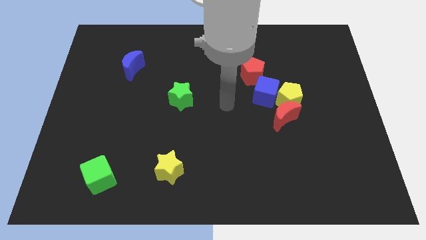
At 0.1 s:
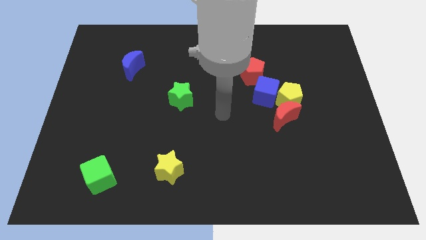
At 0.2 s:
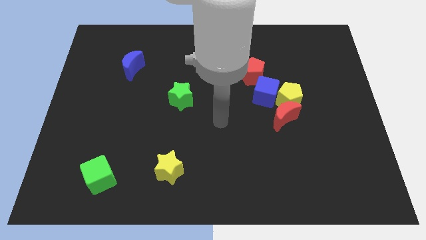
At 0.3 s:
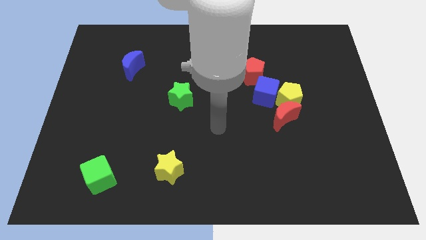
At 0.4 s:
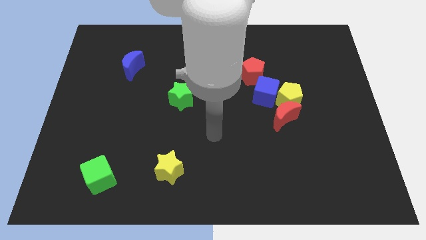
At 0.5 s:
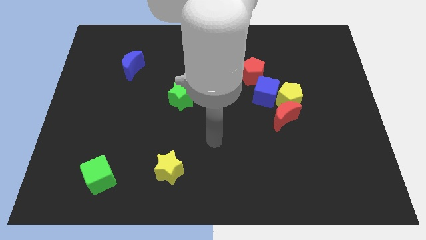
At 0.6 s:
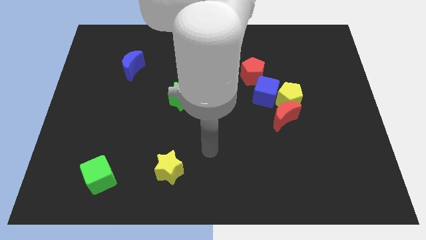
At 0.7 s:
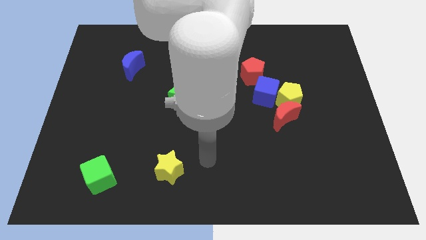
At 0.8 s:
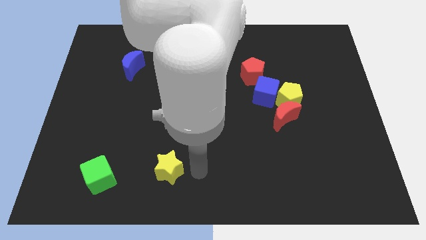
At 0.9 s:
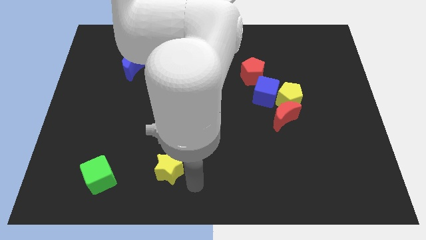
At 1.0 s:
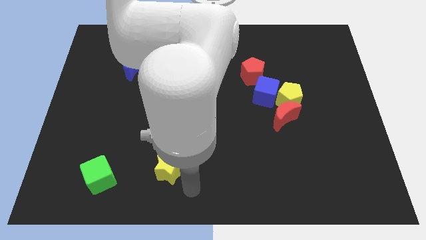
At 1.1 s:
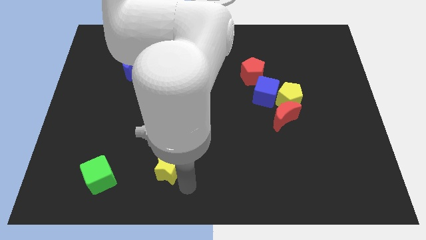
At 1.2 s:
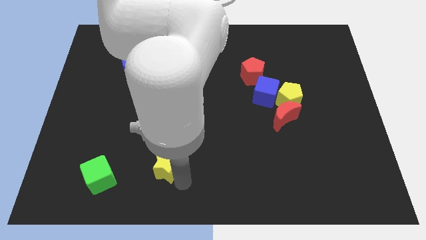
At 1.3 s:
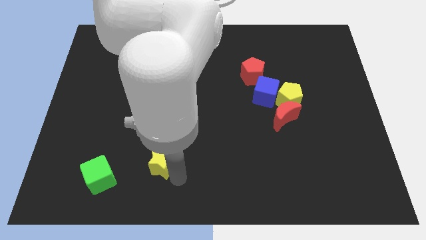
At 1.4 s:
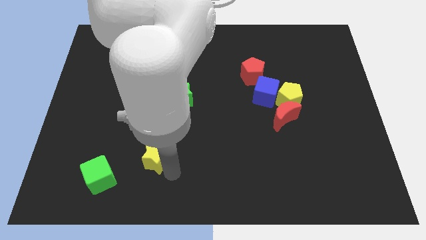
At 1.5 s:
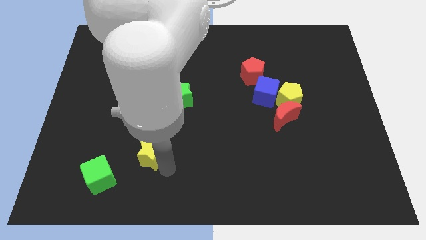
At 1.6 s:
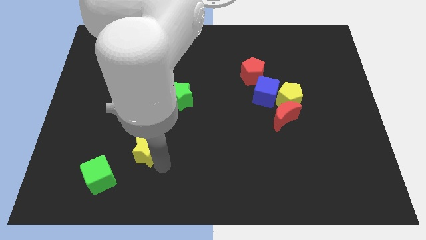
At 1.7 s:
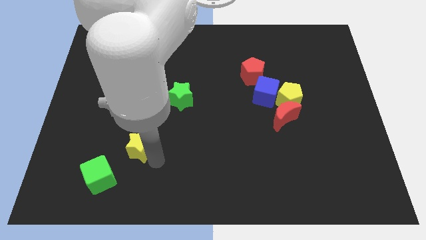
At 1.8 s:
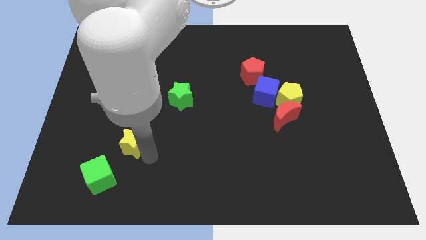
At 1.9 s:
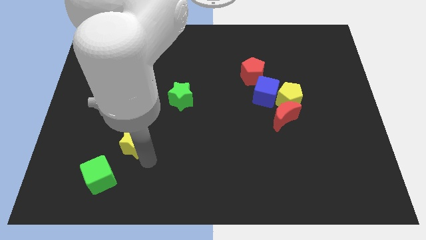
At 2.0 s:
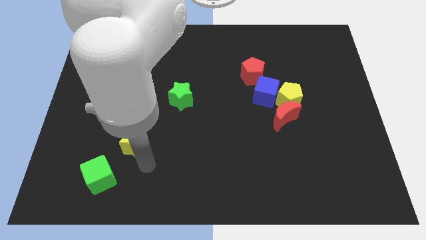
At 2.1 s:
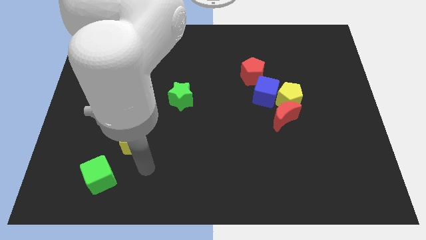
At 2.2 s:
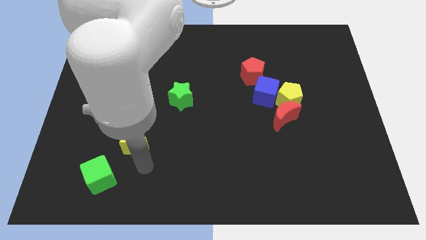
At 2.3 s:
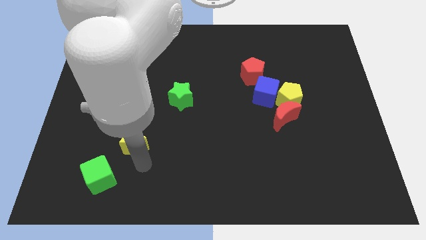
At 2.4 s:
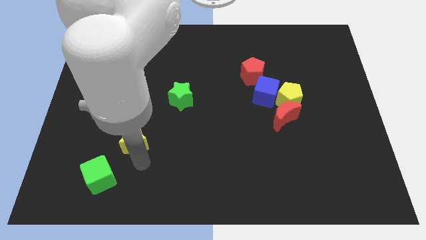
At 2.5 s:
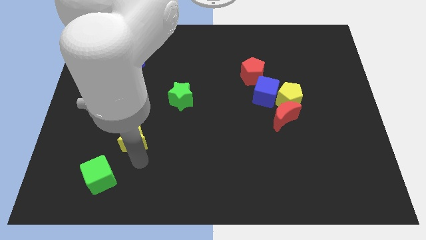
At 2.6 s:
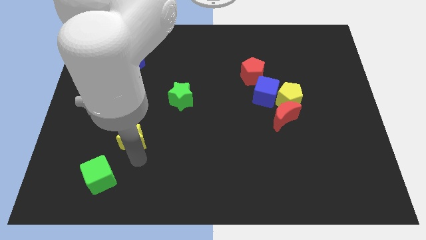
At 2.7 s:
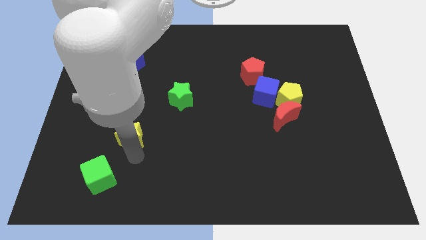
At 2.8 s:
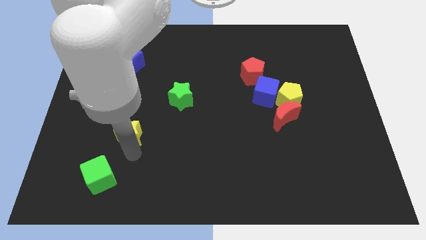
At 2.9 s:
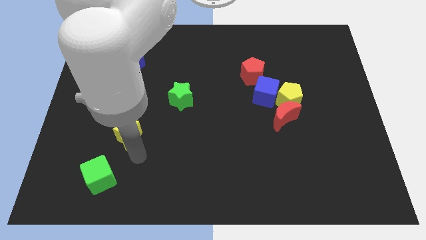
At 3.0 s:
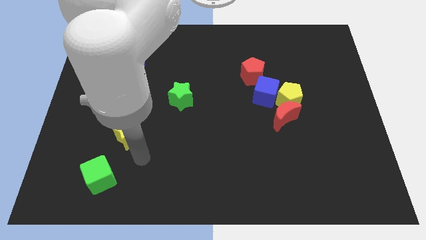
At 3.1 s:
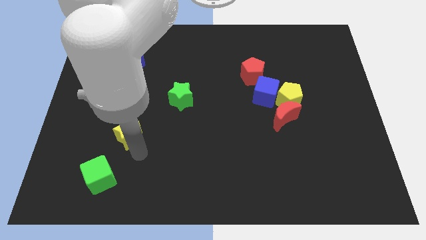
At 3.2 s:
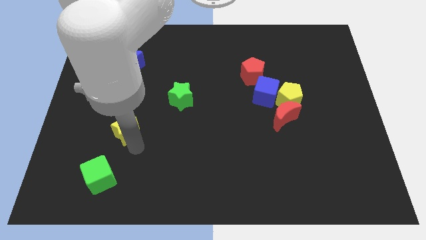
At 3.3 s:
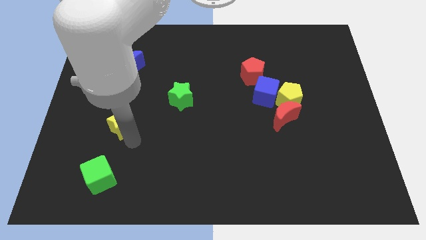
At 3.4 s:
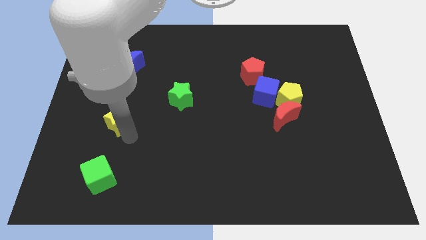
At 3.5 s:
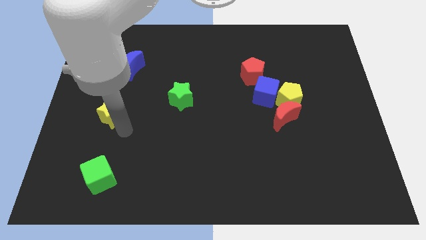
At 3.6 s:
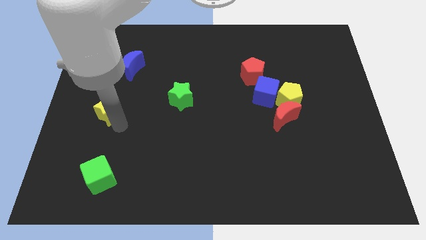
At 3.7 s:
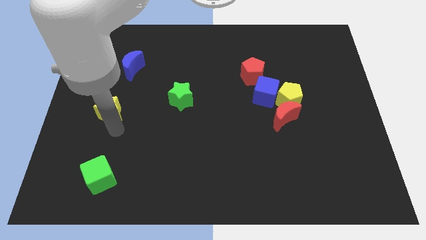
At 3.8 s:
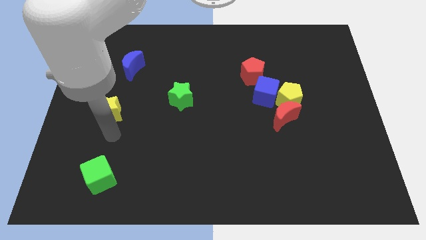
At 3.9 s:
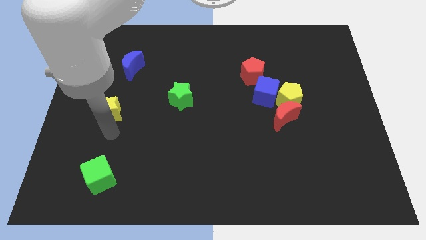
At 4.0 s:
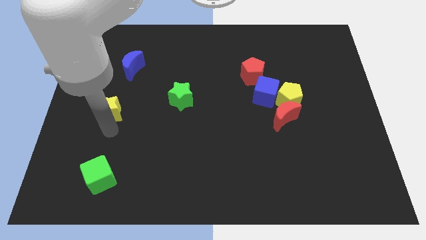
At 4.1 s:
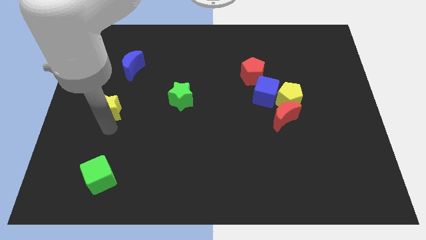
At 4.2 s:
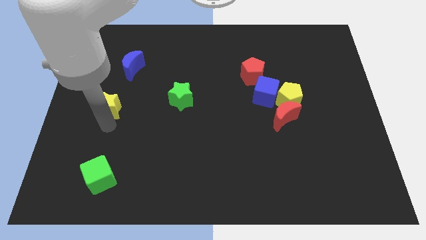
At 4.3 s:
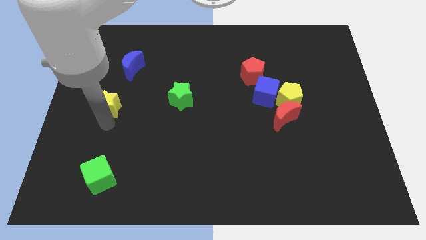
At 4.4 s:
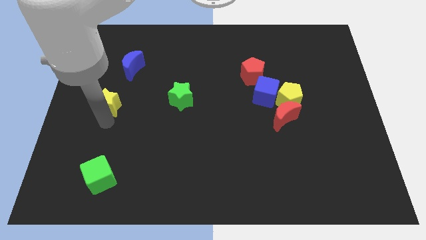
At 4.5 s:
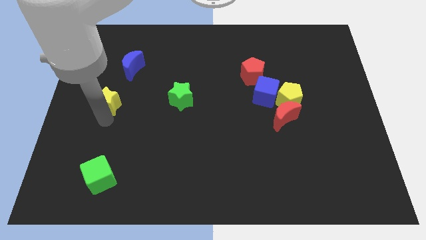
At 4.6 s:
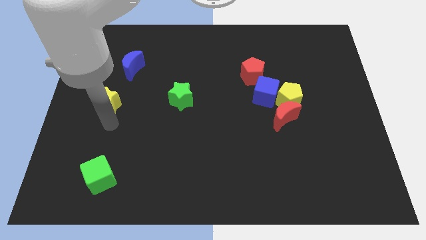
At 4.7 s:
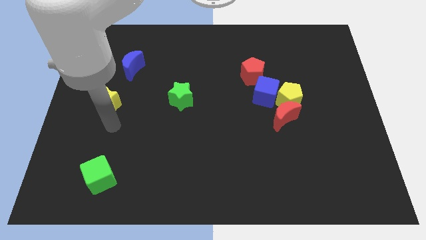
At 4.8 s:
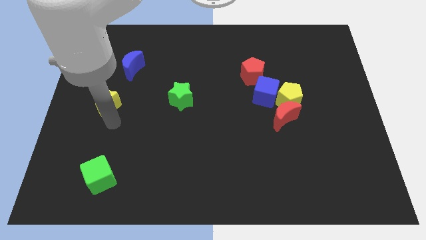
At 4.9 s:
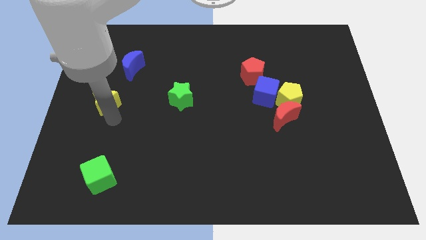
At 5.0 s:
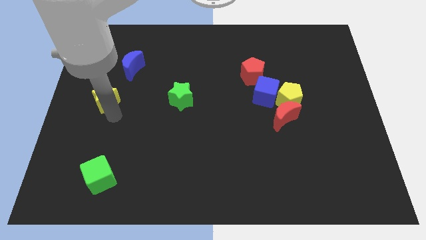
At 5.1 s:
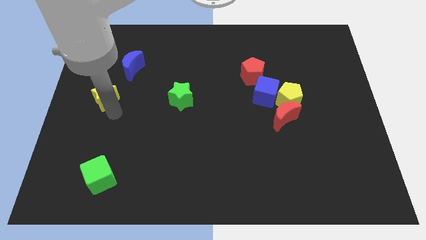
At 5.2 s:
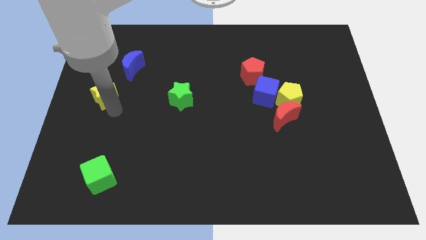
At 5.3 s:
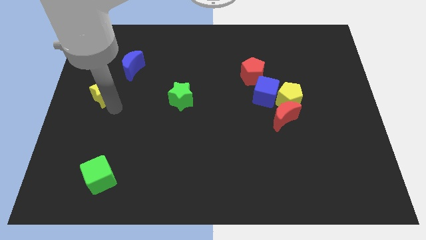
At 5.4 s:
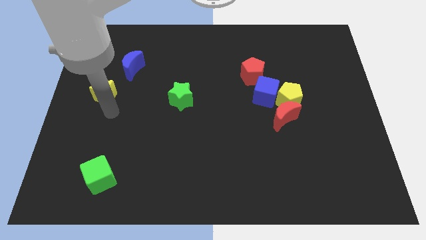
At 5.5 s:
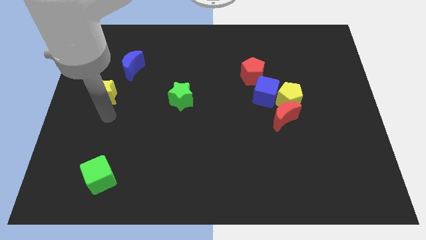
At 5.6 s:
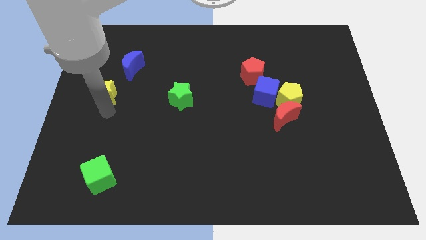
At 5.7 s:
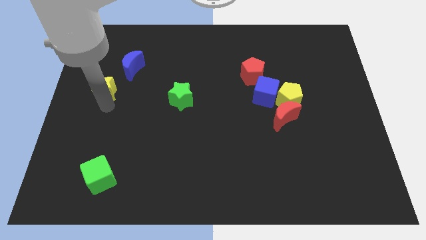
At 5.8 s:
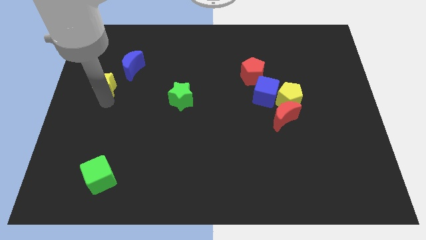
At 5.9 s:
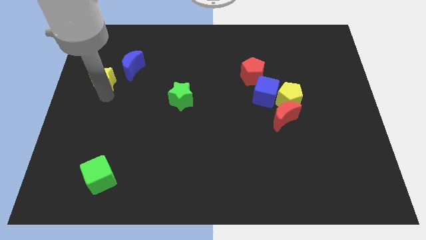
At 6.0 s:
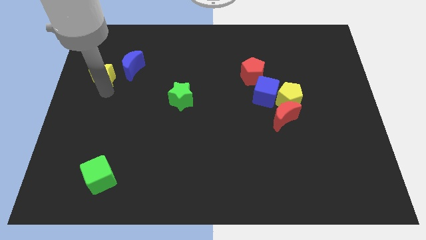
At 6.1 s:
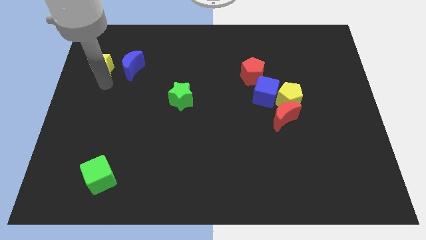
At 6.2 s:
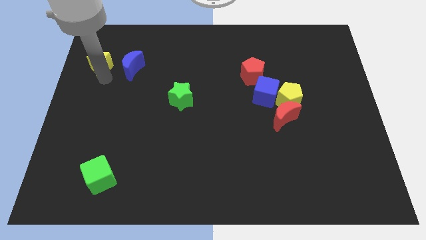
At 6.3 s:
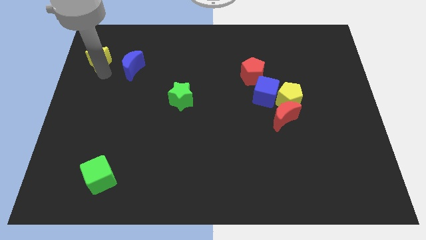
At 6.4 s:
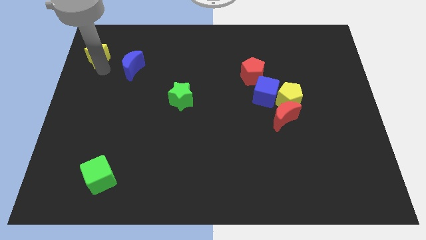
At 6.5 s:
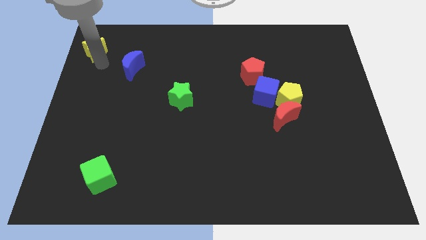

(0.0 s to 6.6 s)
push the yellow star to the top left corner
